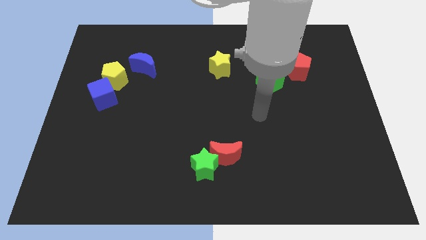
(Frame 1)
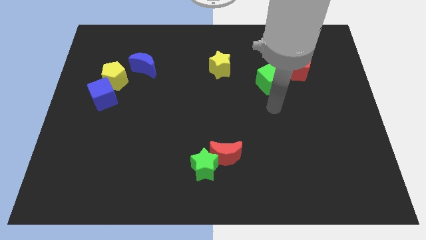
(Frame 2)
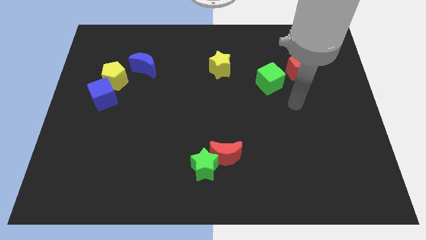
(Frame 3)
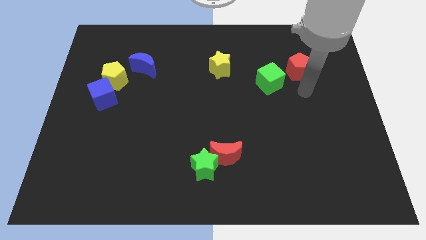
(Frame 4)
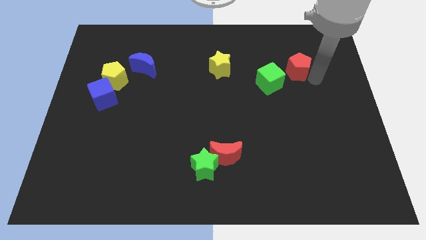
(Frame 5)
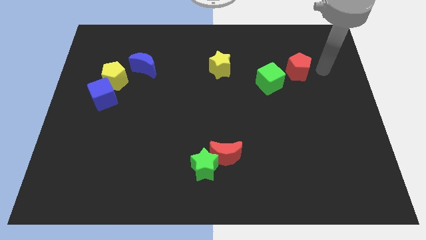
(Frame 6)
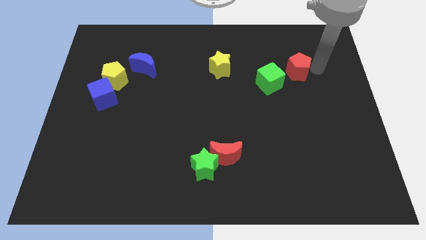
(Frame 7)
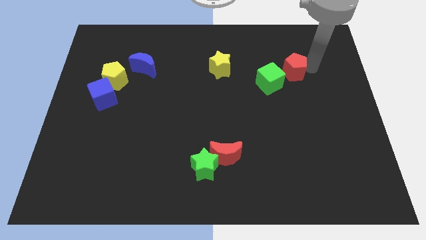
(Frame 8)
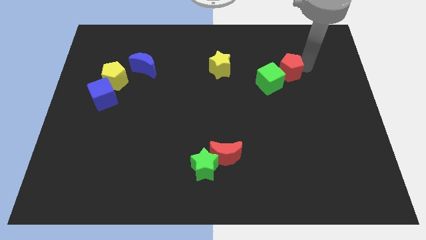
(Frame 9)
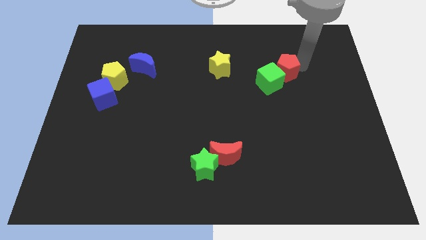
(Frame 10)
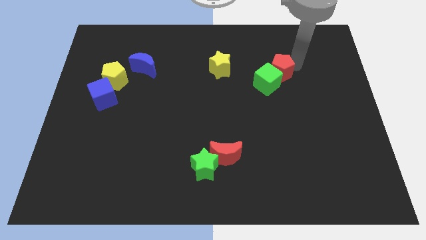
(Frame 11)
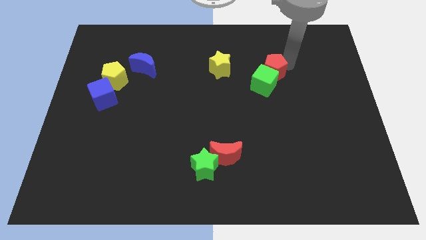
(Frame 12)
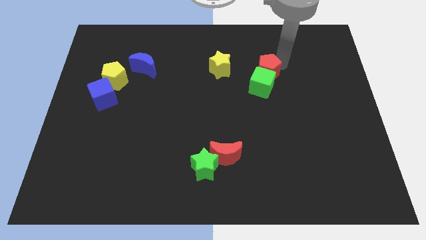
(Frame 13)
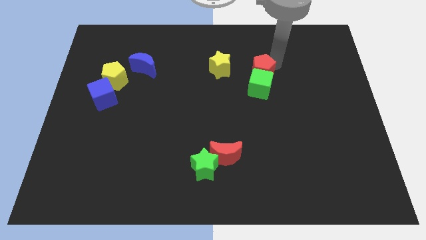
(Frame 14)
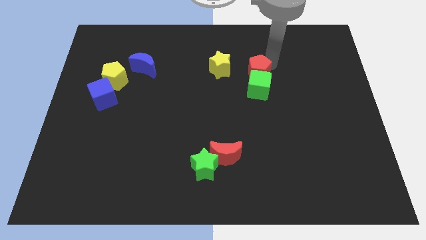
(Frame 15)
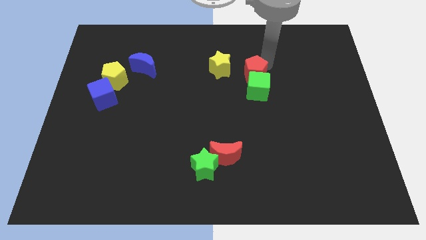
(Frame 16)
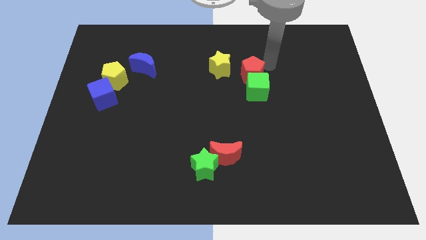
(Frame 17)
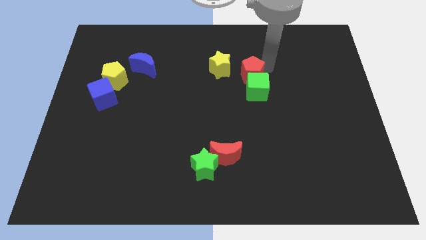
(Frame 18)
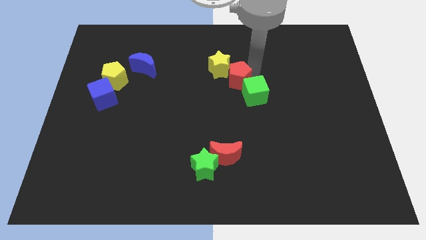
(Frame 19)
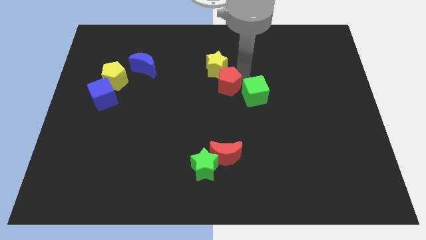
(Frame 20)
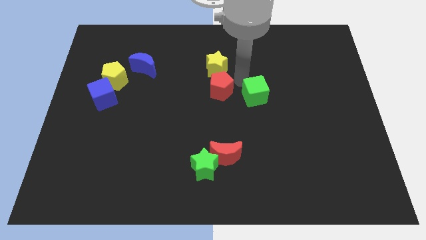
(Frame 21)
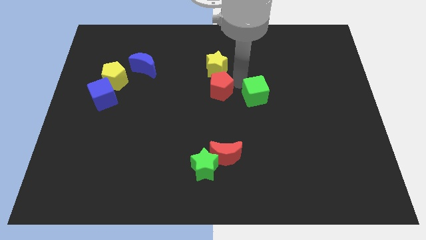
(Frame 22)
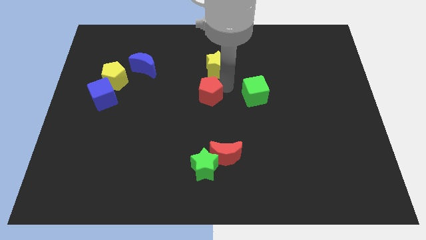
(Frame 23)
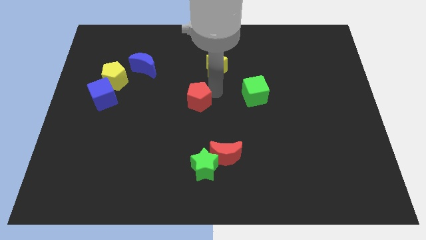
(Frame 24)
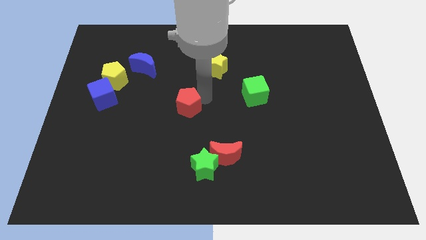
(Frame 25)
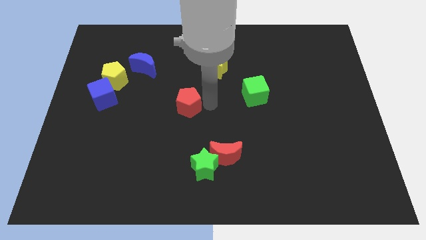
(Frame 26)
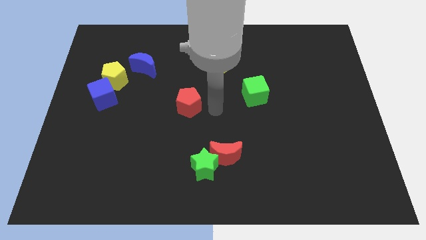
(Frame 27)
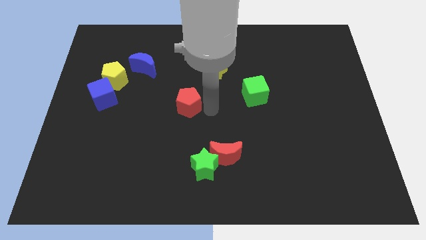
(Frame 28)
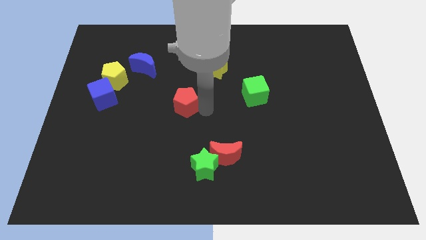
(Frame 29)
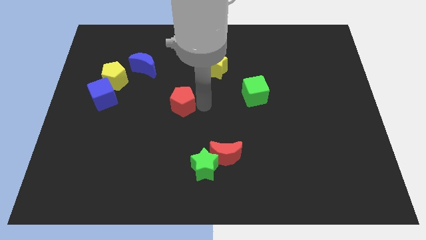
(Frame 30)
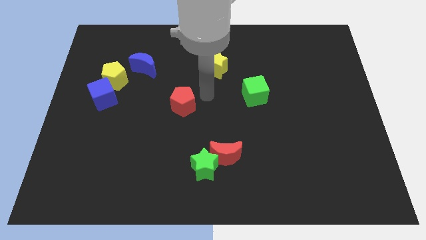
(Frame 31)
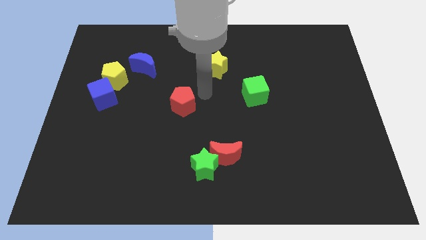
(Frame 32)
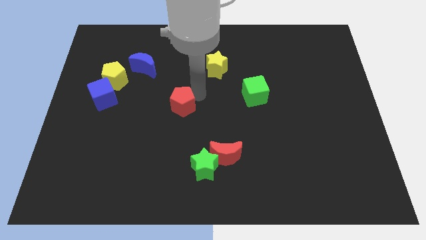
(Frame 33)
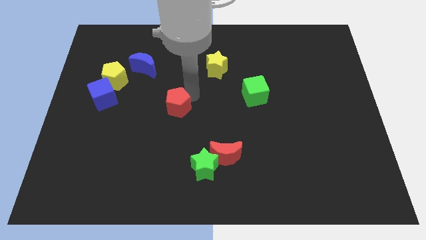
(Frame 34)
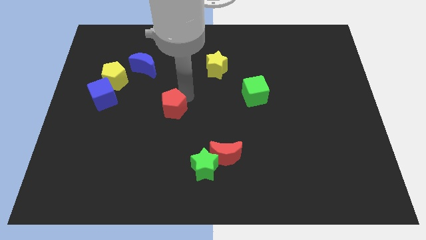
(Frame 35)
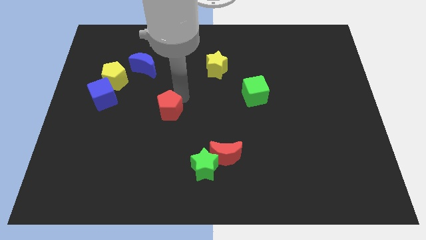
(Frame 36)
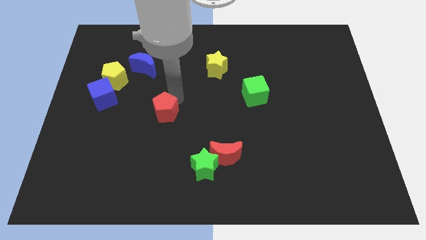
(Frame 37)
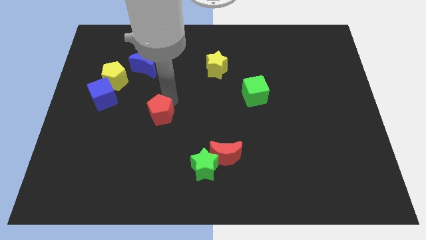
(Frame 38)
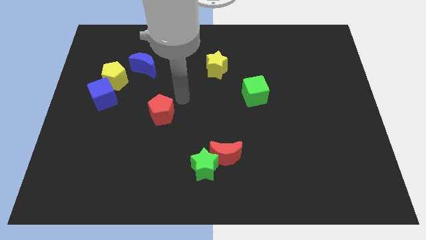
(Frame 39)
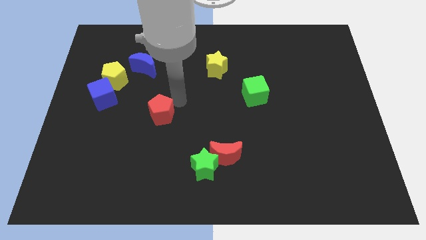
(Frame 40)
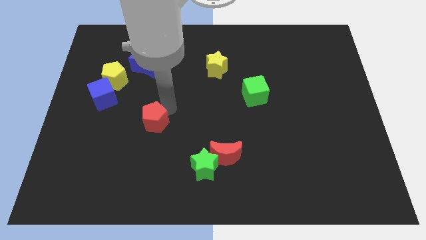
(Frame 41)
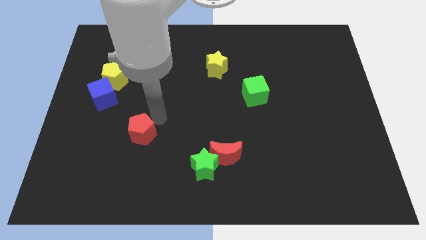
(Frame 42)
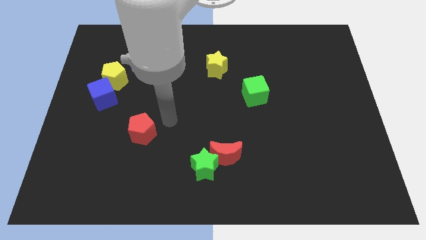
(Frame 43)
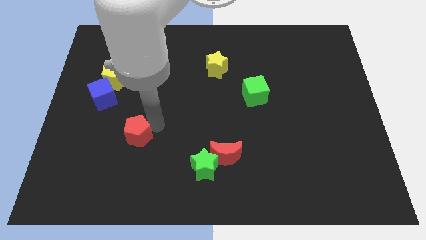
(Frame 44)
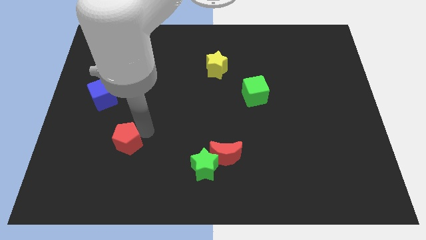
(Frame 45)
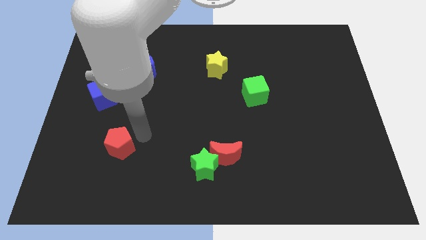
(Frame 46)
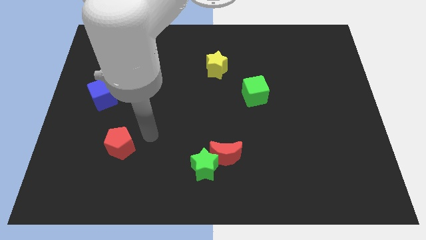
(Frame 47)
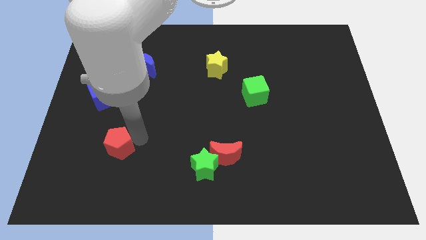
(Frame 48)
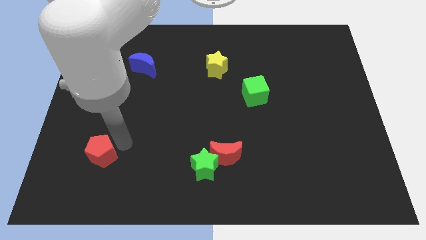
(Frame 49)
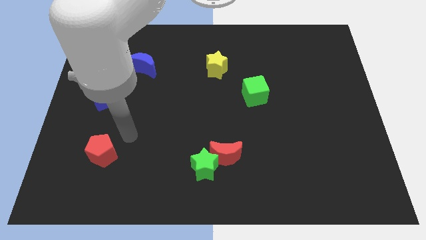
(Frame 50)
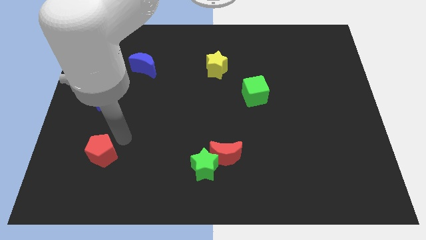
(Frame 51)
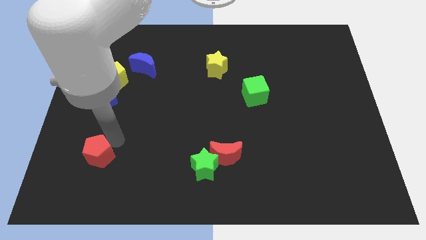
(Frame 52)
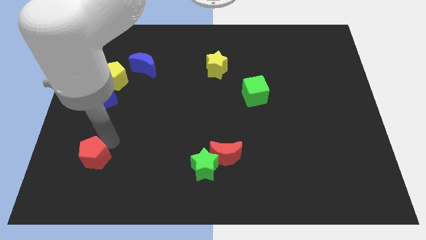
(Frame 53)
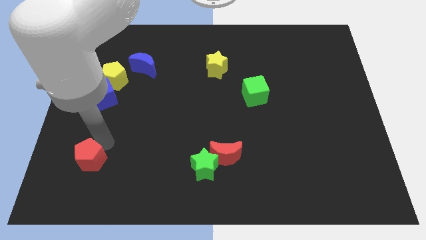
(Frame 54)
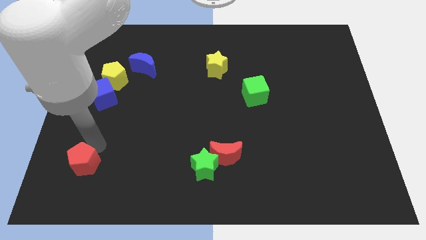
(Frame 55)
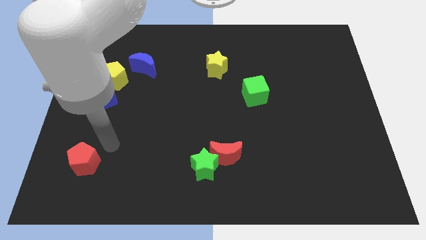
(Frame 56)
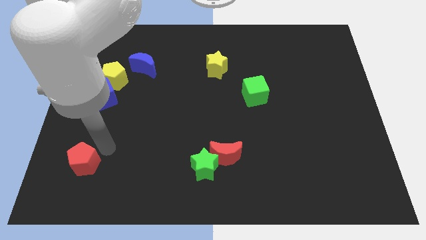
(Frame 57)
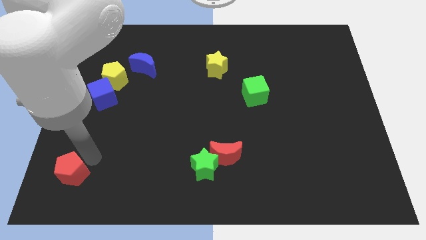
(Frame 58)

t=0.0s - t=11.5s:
move the red pentagon to the lower left corner
